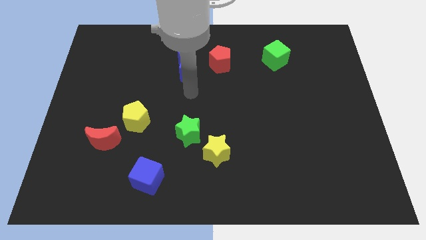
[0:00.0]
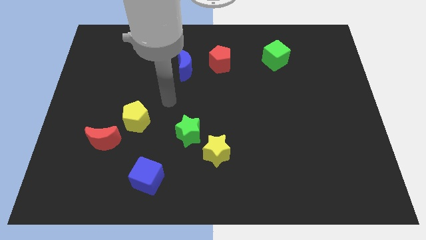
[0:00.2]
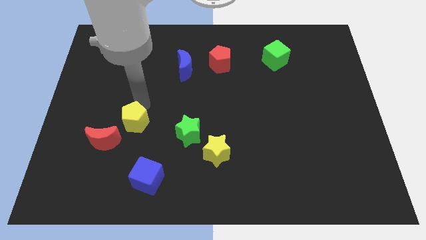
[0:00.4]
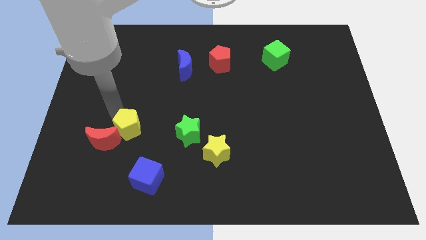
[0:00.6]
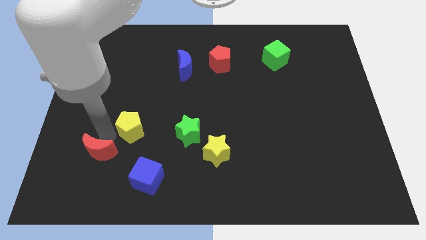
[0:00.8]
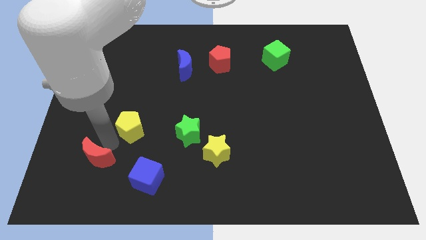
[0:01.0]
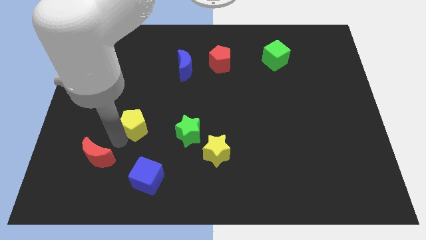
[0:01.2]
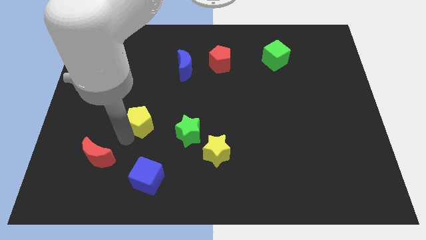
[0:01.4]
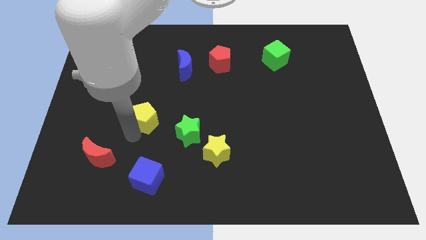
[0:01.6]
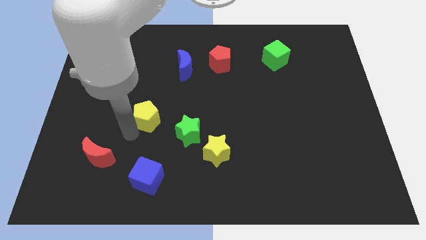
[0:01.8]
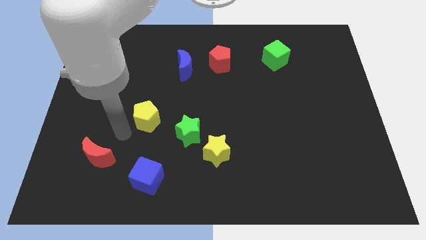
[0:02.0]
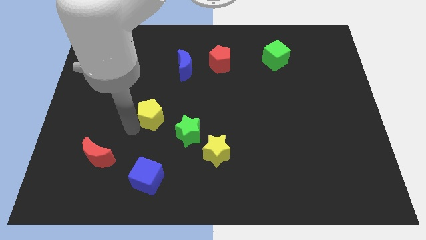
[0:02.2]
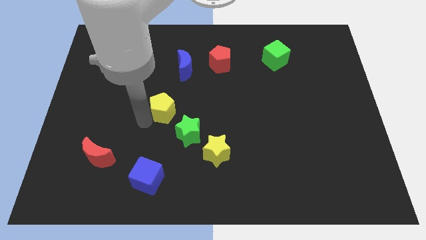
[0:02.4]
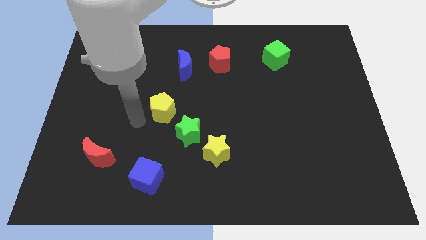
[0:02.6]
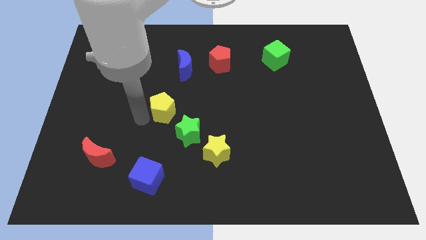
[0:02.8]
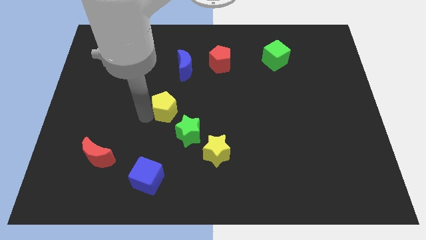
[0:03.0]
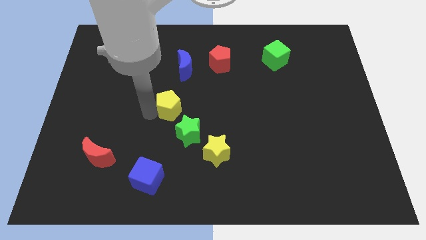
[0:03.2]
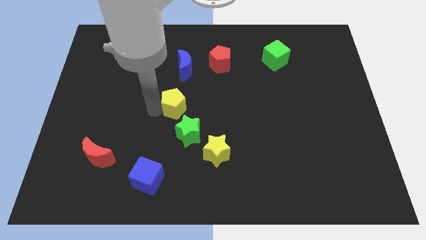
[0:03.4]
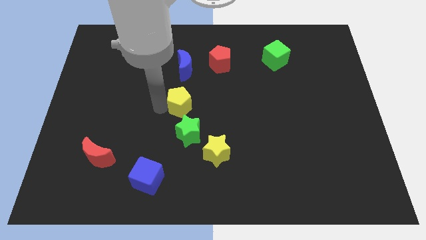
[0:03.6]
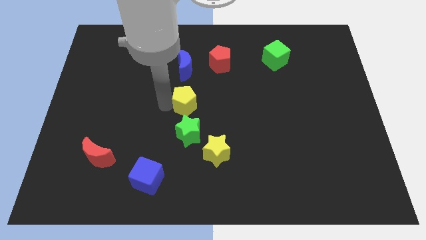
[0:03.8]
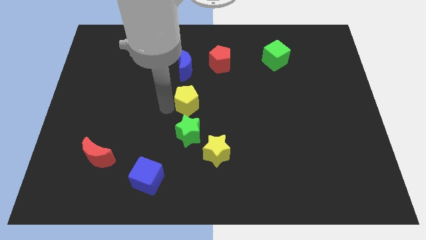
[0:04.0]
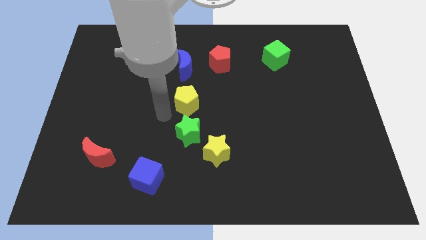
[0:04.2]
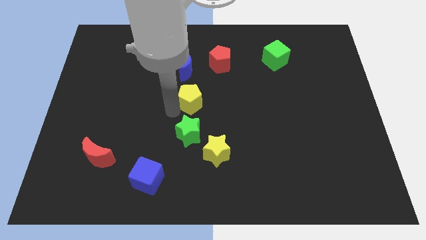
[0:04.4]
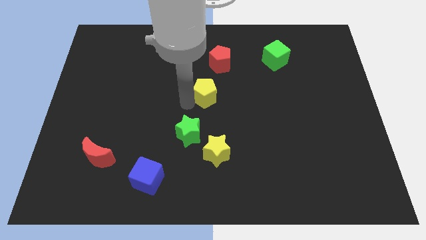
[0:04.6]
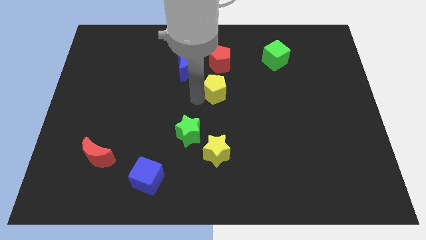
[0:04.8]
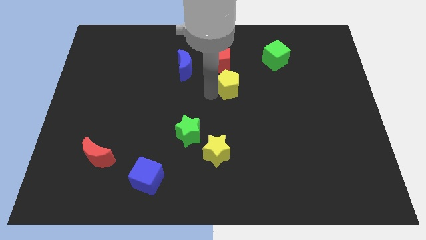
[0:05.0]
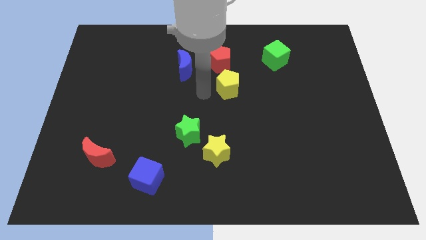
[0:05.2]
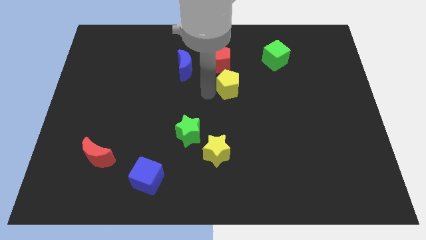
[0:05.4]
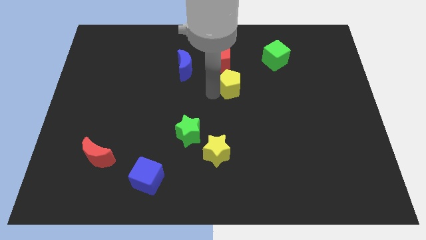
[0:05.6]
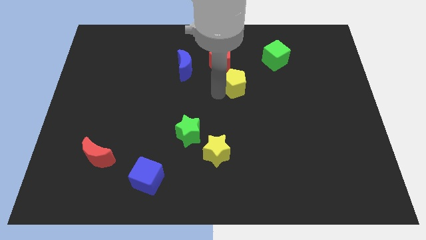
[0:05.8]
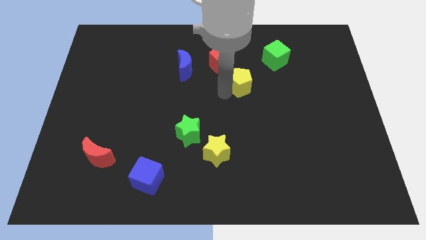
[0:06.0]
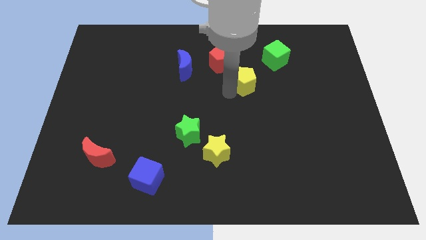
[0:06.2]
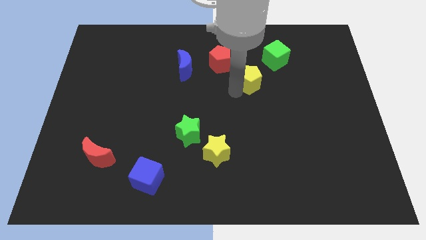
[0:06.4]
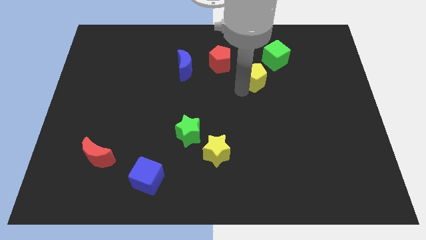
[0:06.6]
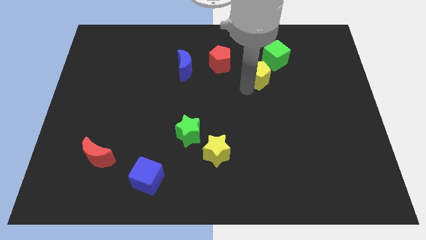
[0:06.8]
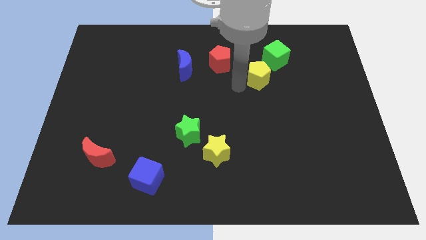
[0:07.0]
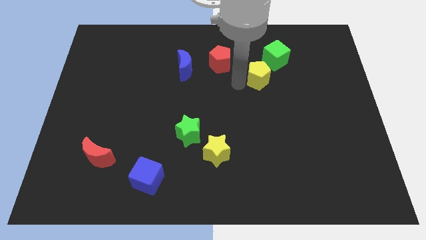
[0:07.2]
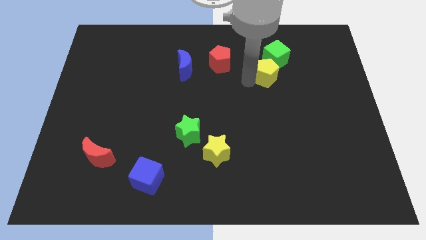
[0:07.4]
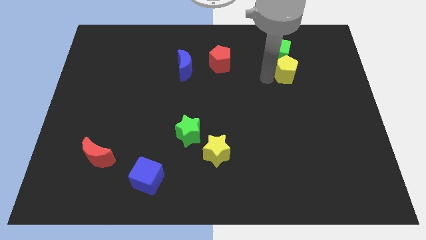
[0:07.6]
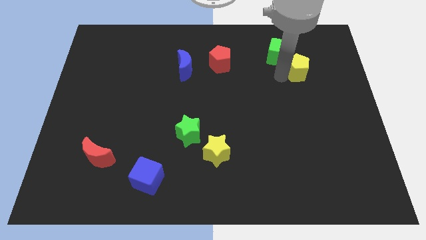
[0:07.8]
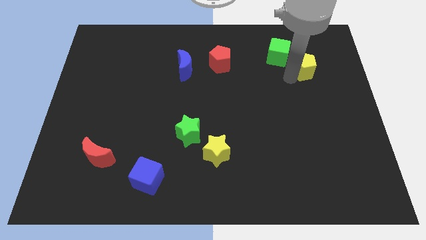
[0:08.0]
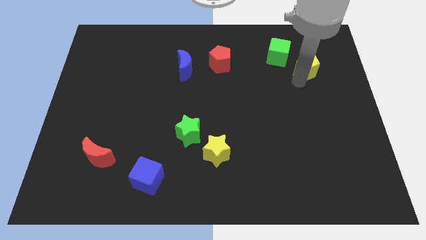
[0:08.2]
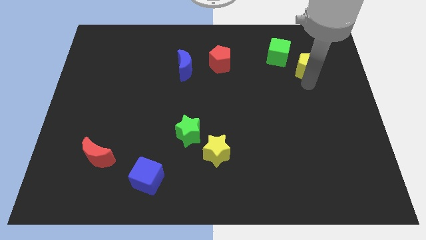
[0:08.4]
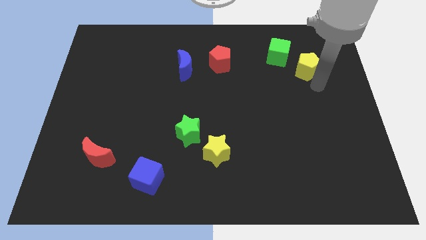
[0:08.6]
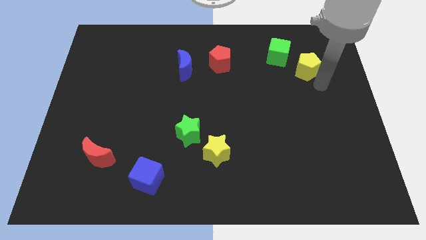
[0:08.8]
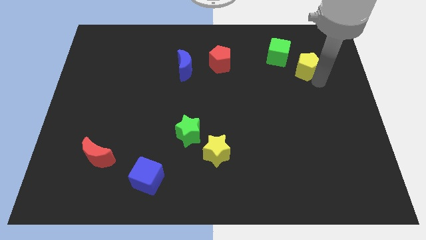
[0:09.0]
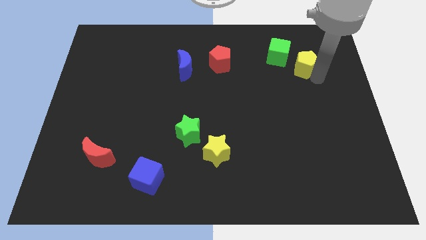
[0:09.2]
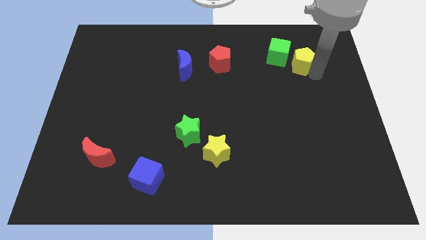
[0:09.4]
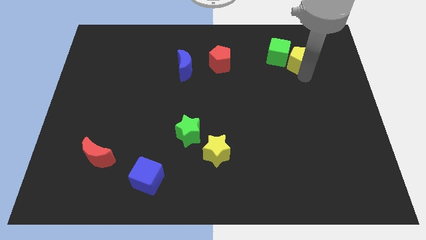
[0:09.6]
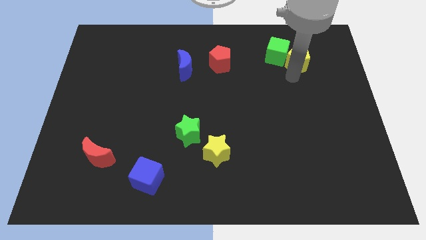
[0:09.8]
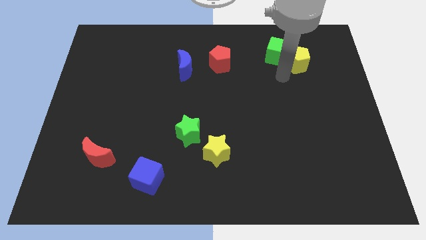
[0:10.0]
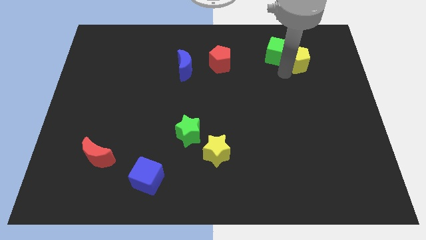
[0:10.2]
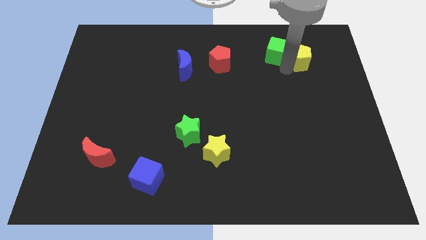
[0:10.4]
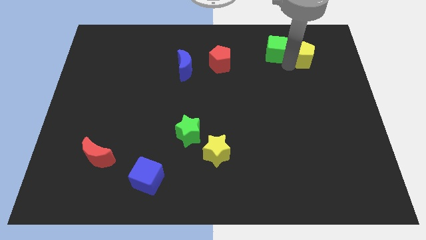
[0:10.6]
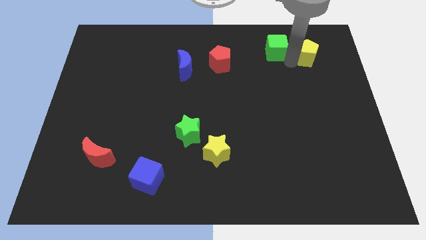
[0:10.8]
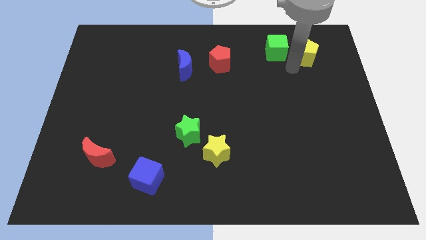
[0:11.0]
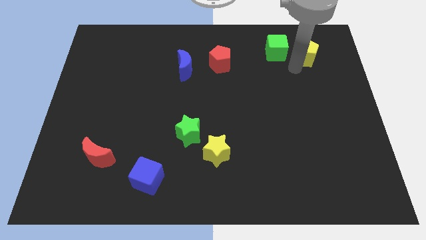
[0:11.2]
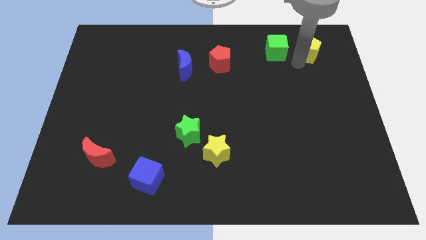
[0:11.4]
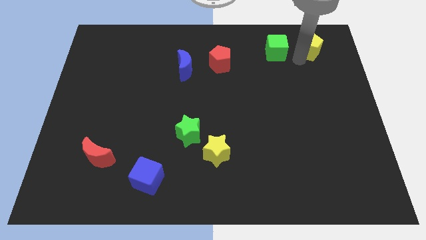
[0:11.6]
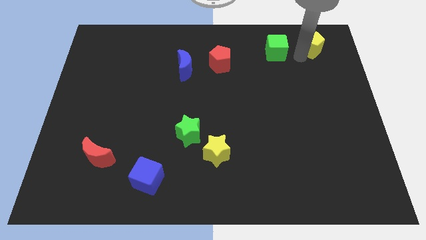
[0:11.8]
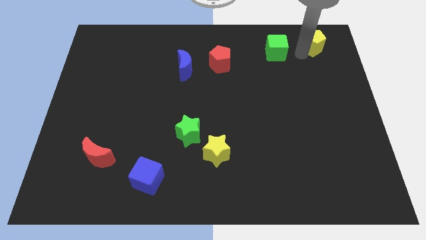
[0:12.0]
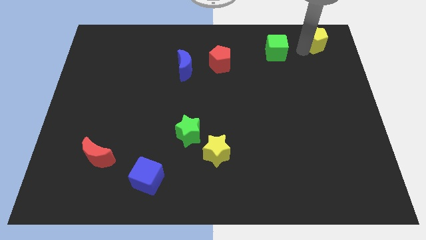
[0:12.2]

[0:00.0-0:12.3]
move the yellow pentagon to the top right of the board

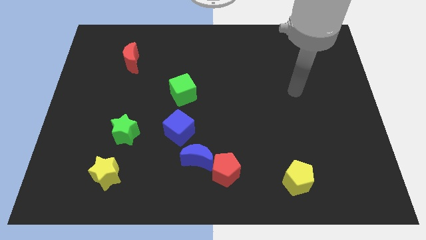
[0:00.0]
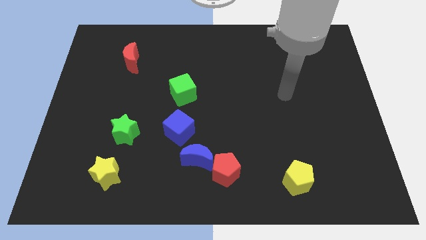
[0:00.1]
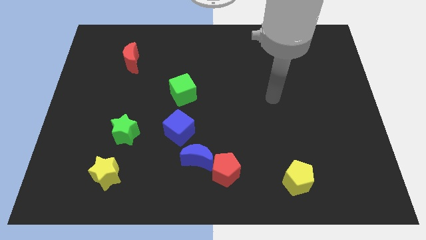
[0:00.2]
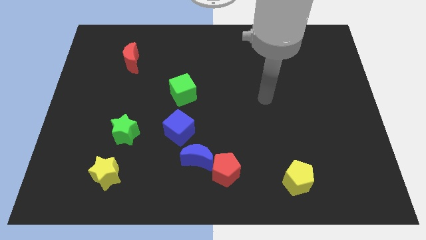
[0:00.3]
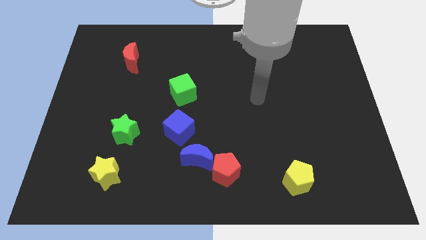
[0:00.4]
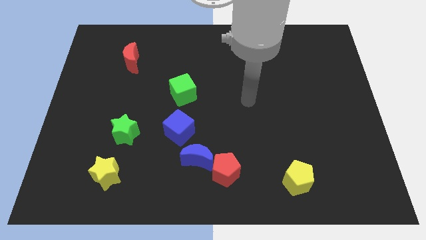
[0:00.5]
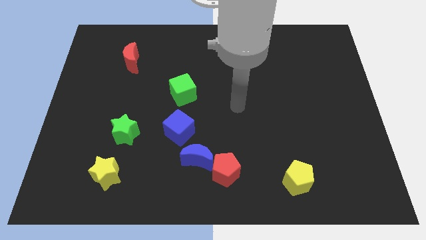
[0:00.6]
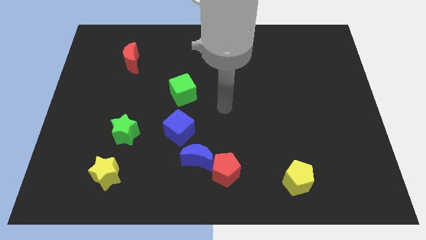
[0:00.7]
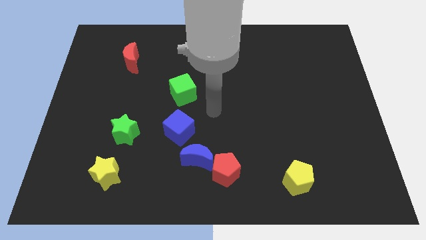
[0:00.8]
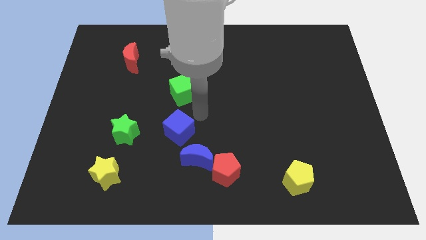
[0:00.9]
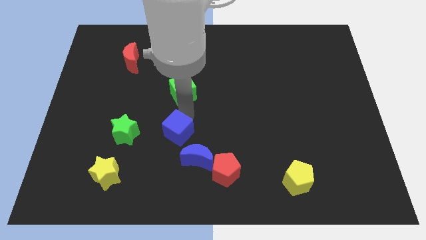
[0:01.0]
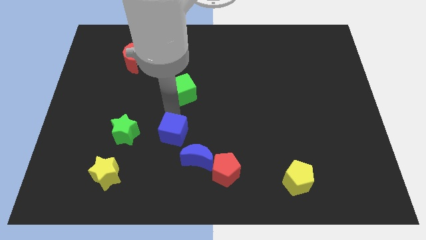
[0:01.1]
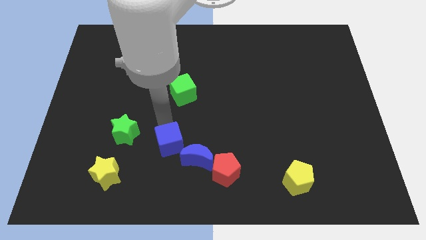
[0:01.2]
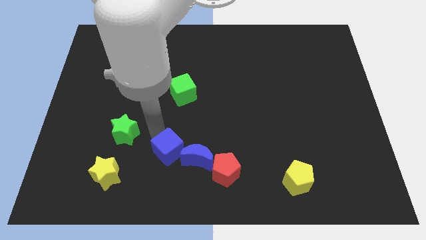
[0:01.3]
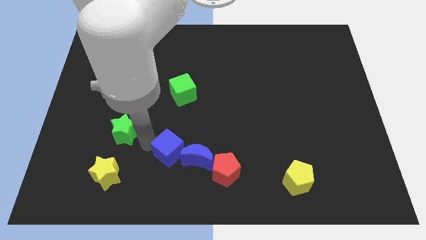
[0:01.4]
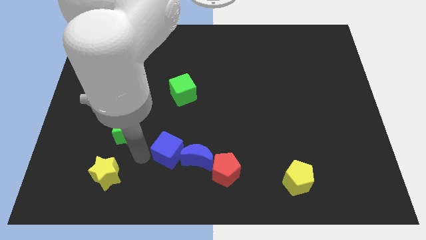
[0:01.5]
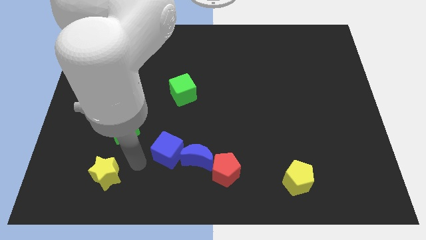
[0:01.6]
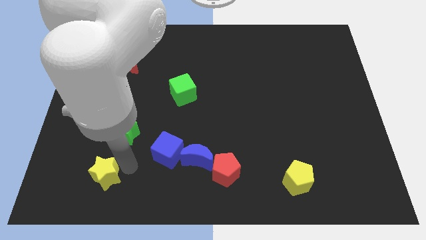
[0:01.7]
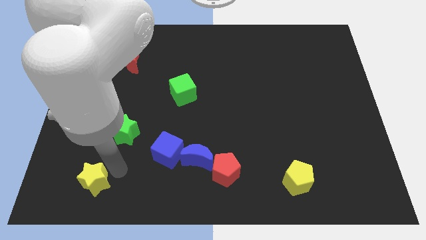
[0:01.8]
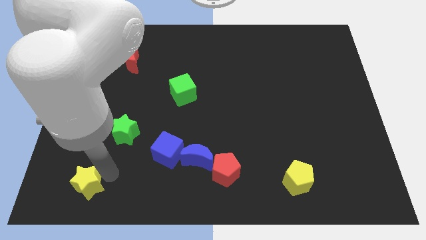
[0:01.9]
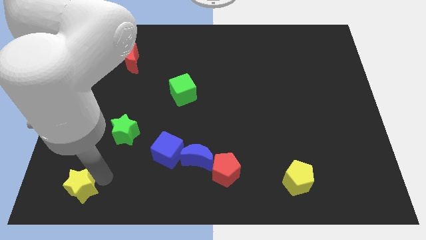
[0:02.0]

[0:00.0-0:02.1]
slide the yellow star to the bottom left of the board
